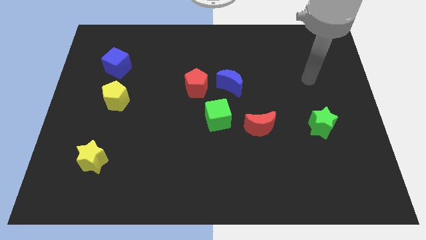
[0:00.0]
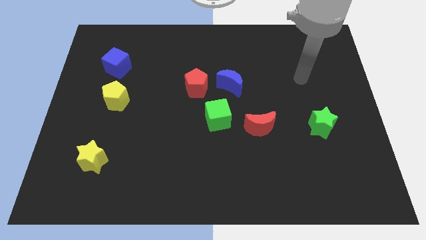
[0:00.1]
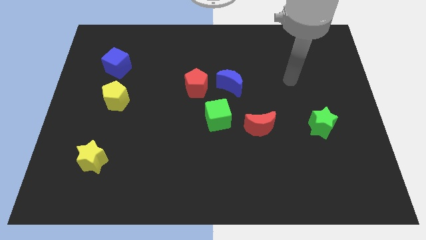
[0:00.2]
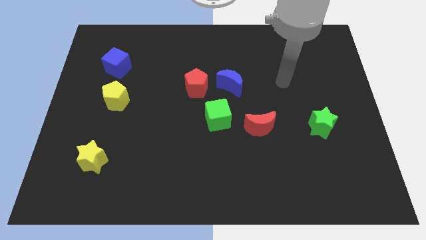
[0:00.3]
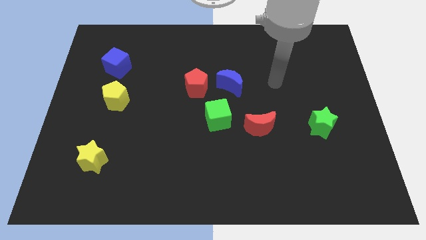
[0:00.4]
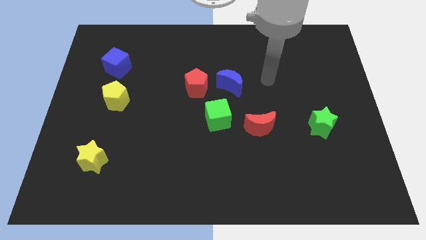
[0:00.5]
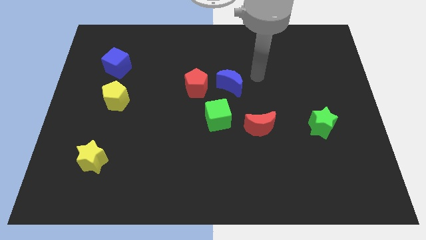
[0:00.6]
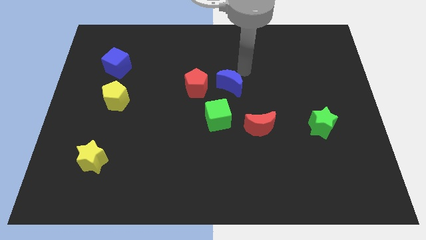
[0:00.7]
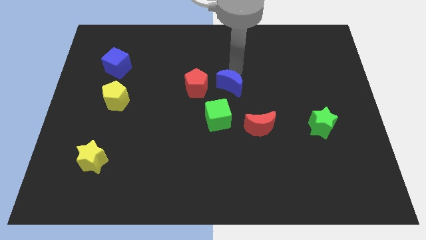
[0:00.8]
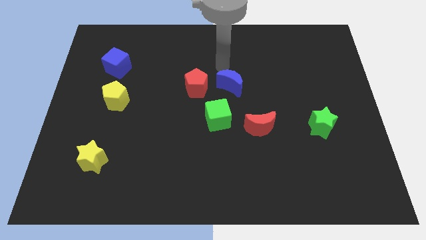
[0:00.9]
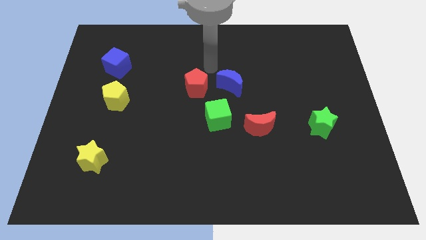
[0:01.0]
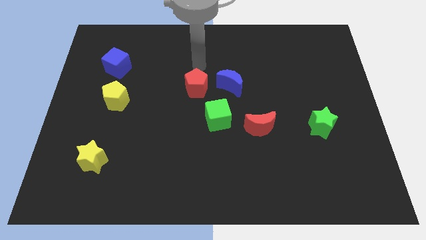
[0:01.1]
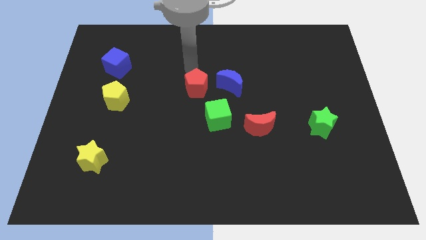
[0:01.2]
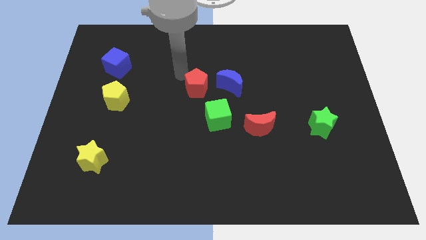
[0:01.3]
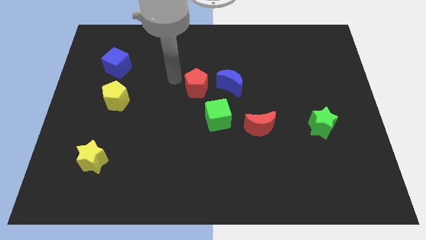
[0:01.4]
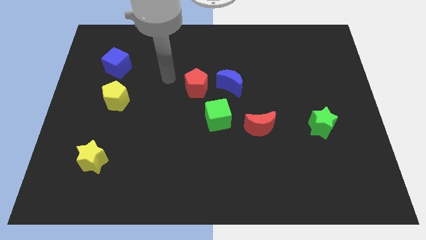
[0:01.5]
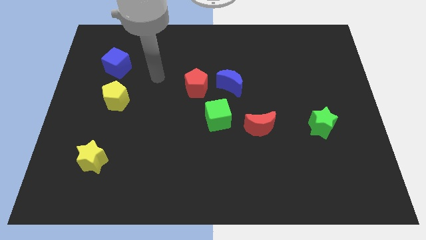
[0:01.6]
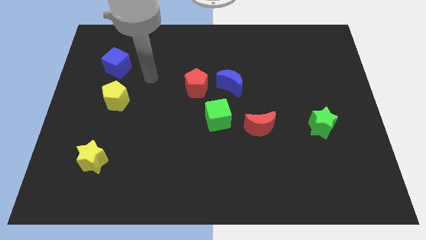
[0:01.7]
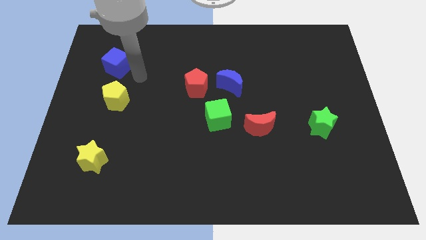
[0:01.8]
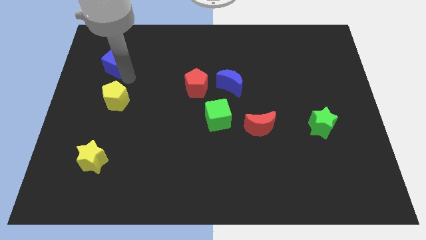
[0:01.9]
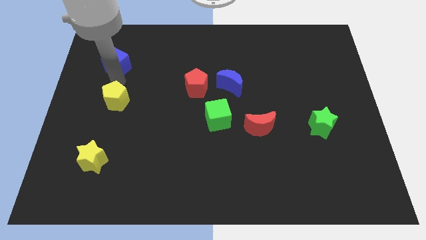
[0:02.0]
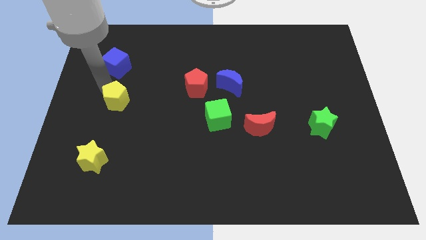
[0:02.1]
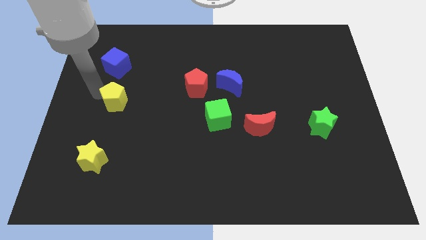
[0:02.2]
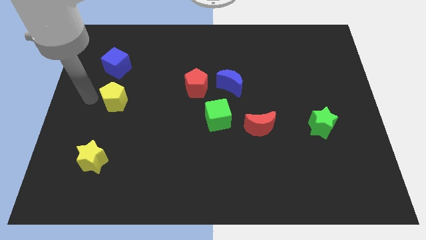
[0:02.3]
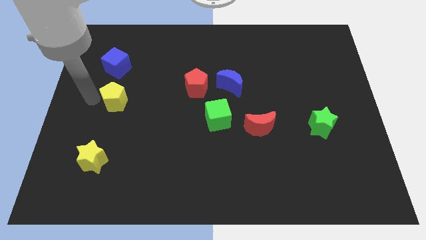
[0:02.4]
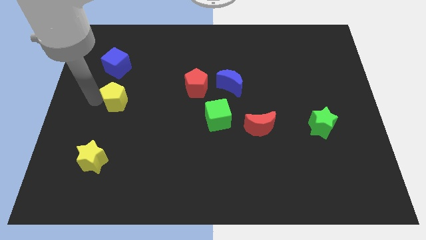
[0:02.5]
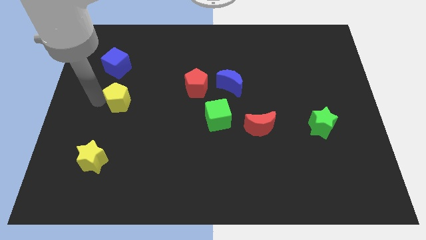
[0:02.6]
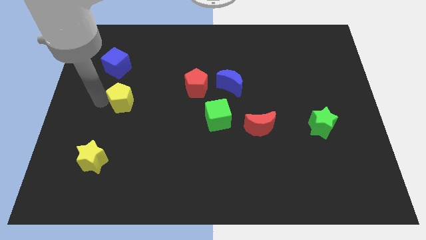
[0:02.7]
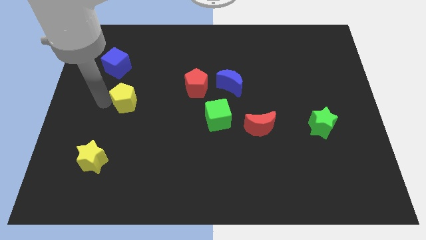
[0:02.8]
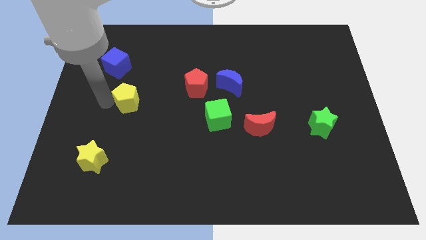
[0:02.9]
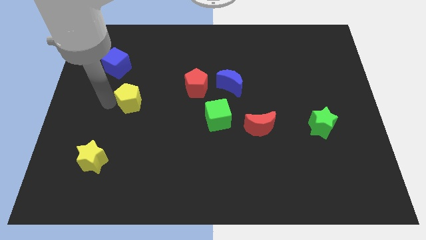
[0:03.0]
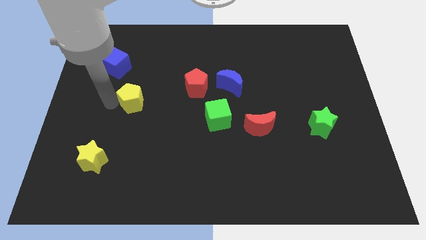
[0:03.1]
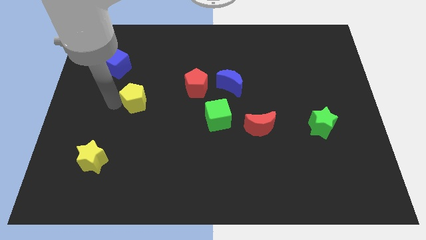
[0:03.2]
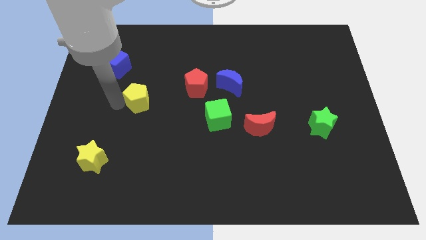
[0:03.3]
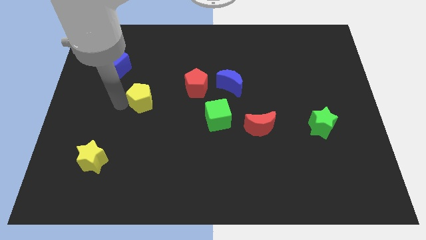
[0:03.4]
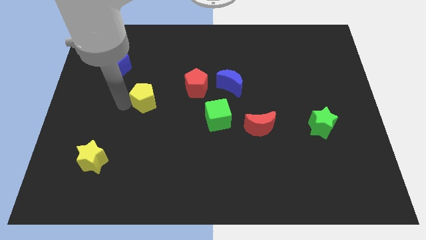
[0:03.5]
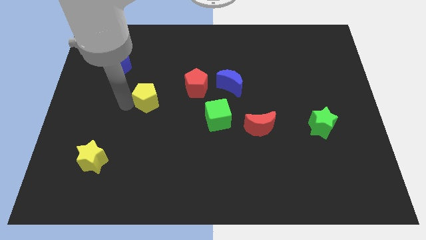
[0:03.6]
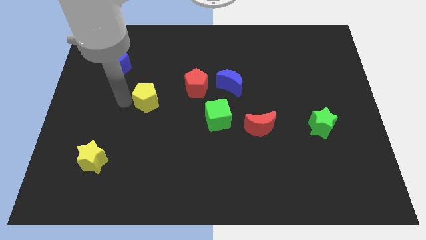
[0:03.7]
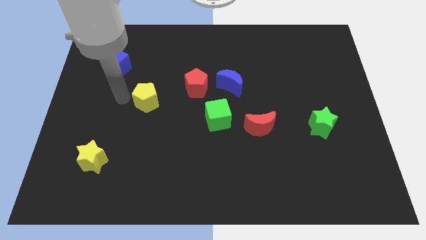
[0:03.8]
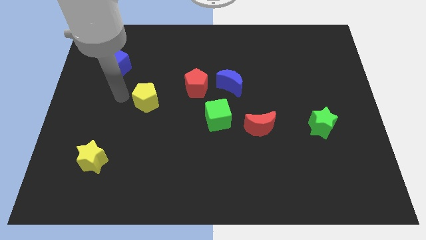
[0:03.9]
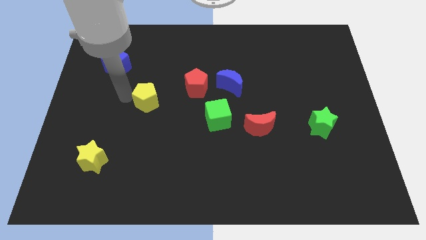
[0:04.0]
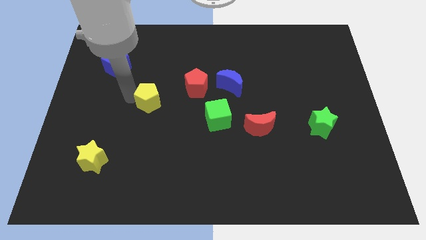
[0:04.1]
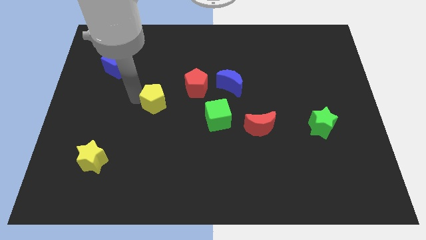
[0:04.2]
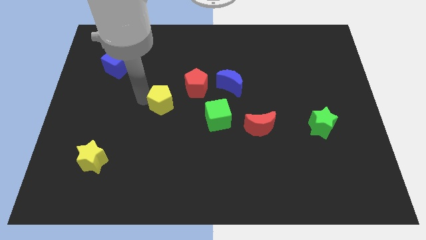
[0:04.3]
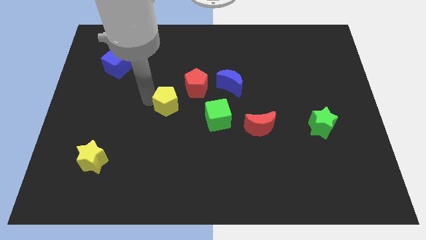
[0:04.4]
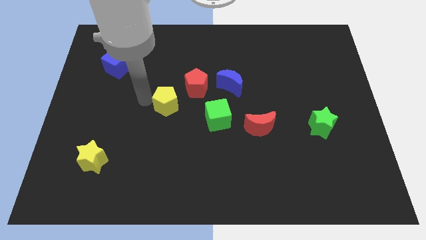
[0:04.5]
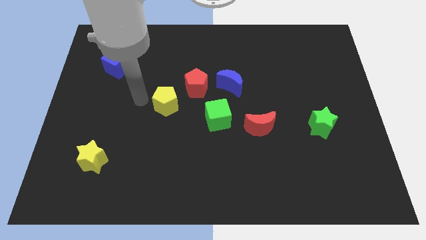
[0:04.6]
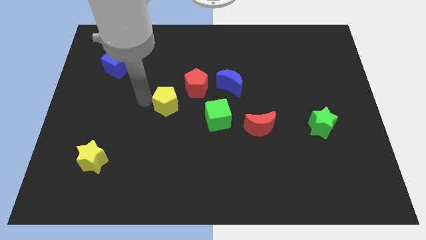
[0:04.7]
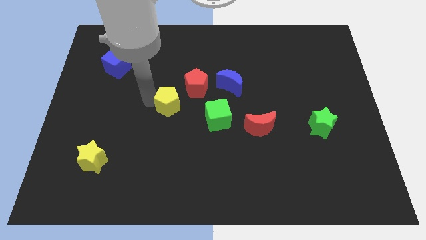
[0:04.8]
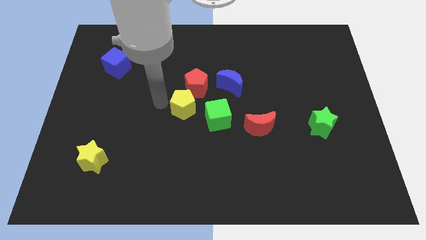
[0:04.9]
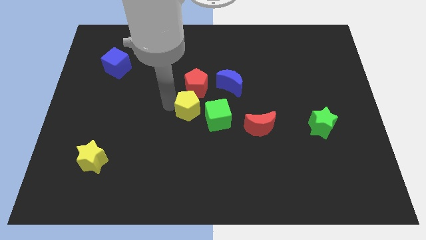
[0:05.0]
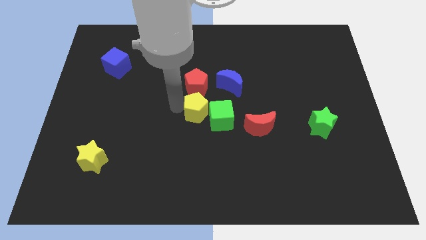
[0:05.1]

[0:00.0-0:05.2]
push the yellow pentagon to the bottom right of the red pentagon

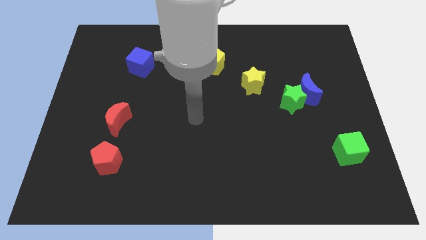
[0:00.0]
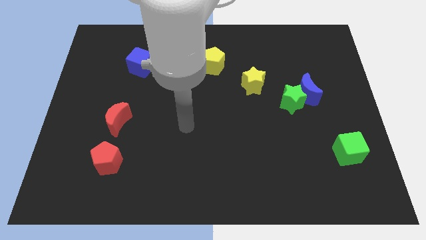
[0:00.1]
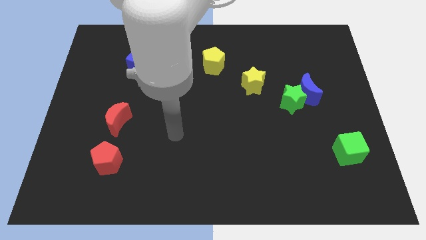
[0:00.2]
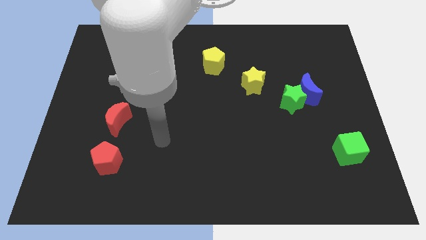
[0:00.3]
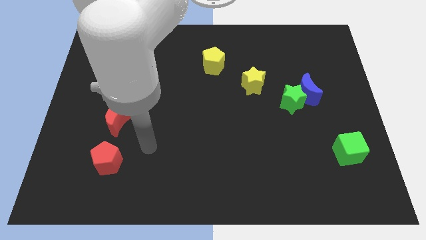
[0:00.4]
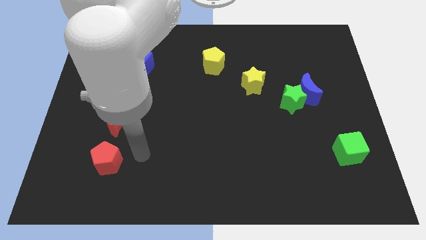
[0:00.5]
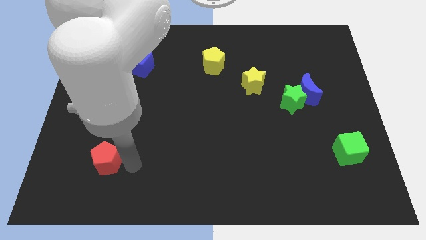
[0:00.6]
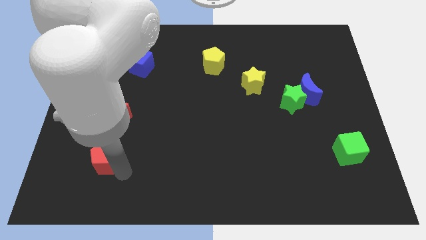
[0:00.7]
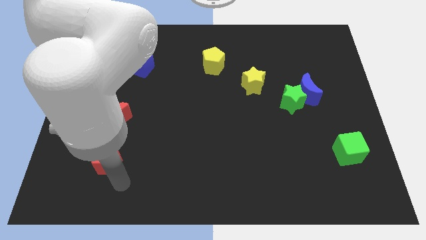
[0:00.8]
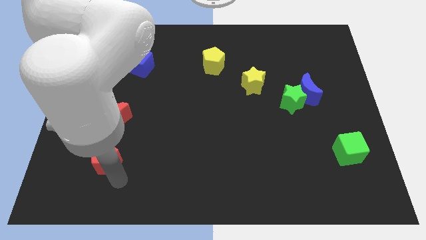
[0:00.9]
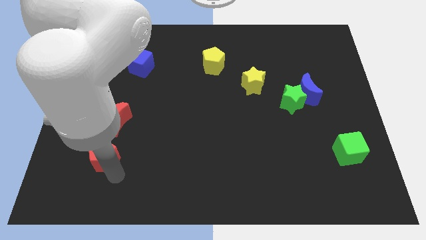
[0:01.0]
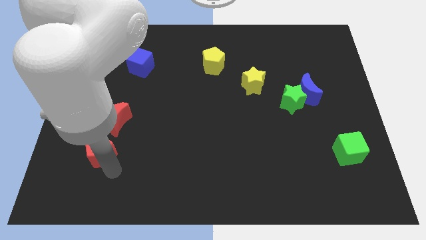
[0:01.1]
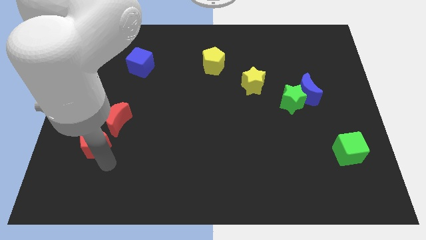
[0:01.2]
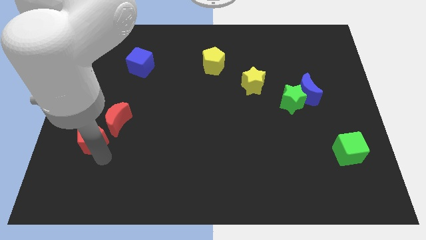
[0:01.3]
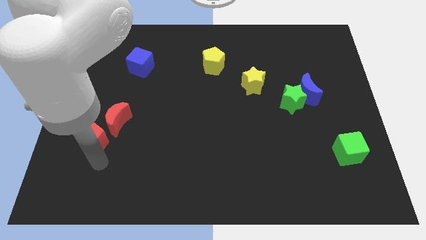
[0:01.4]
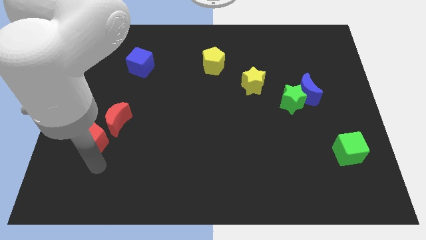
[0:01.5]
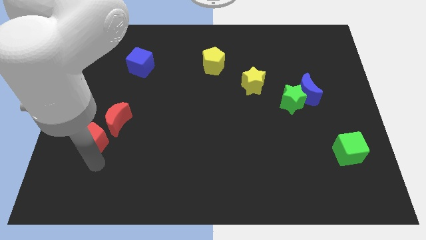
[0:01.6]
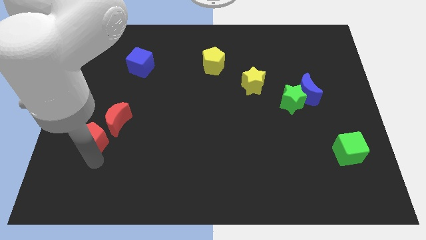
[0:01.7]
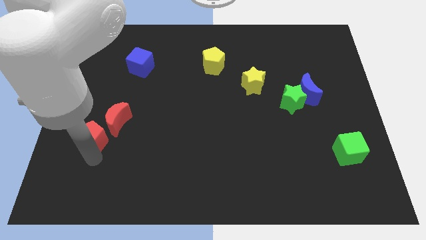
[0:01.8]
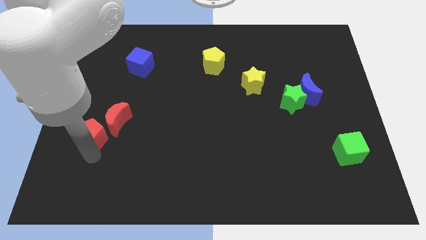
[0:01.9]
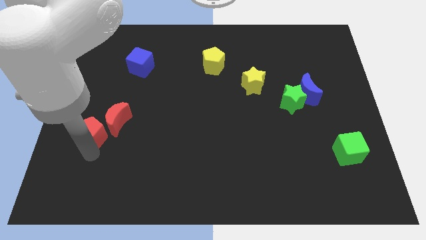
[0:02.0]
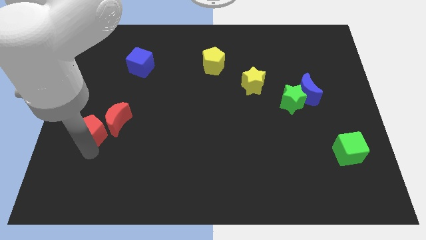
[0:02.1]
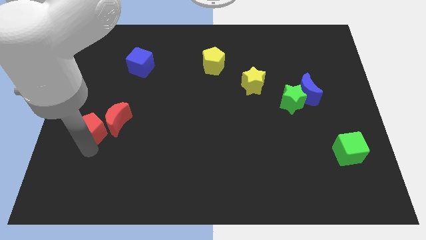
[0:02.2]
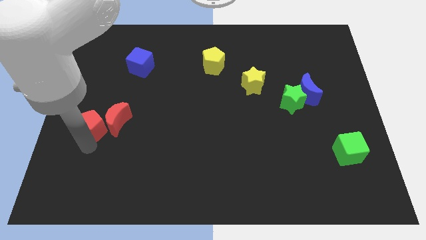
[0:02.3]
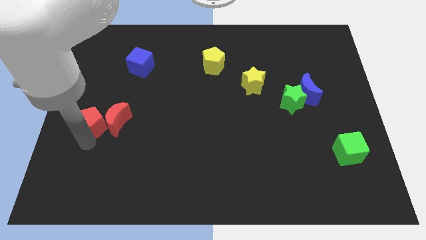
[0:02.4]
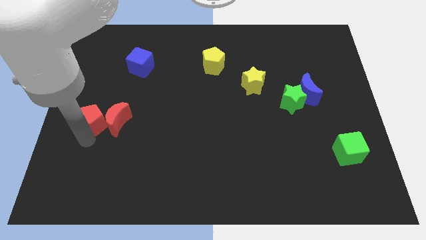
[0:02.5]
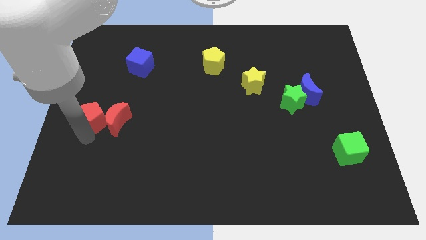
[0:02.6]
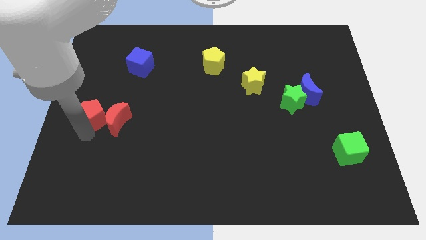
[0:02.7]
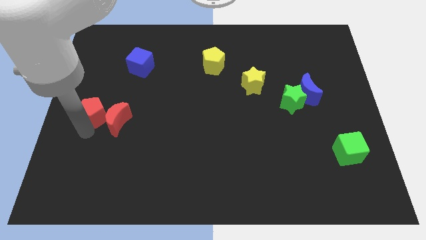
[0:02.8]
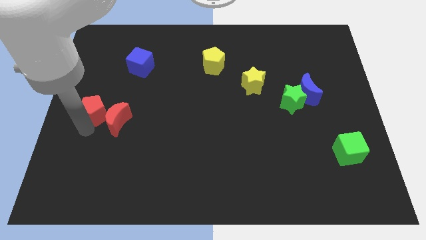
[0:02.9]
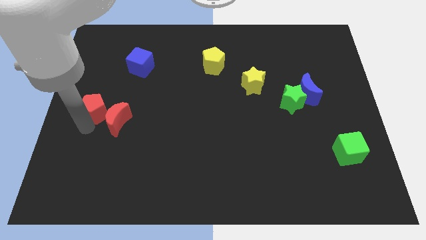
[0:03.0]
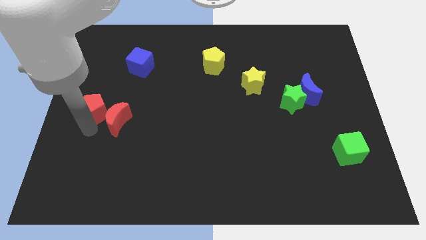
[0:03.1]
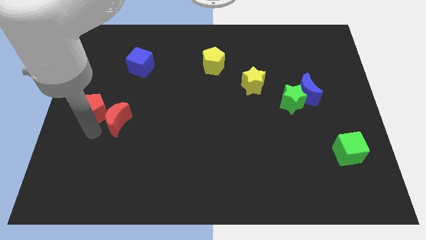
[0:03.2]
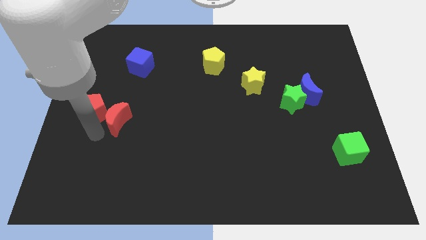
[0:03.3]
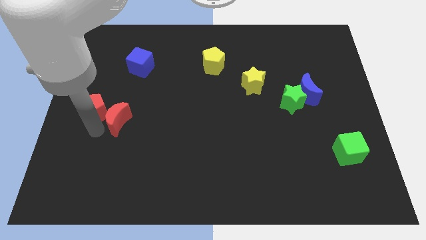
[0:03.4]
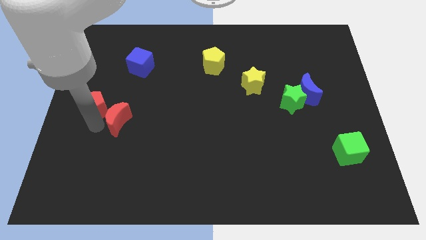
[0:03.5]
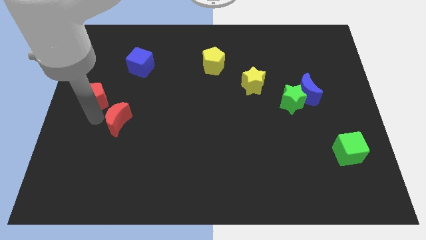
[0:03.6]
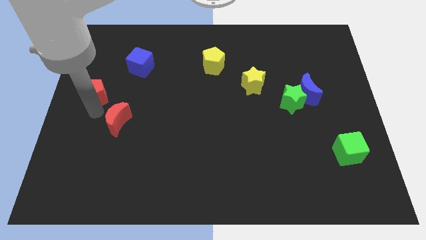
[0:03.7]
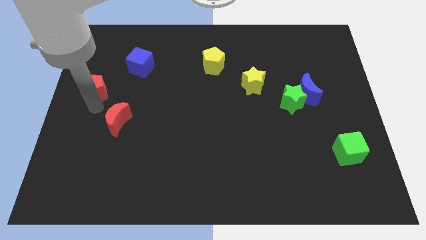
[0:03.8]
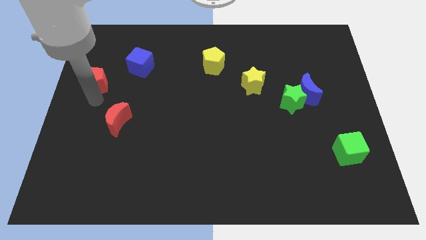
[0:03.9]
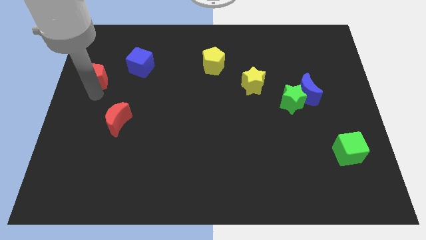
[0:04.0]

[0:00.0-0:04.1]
move the red pentagon just left of the blue cube
